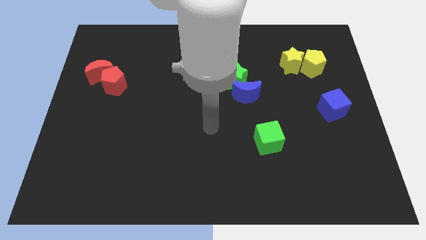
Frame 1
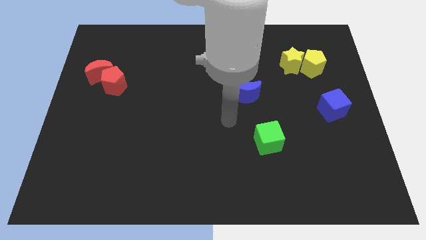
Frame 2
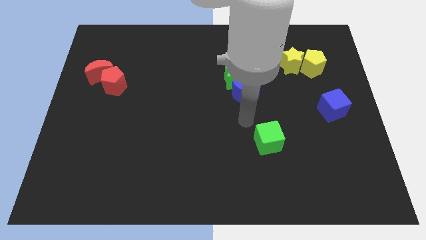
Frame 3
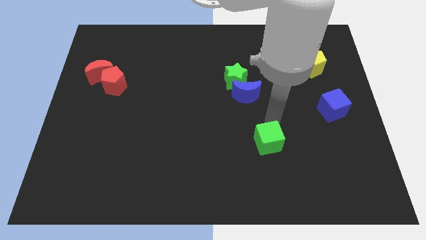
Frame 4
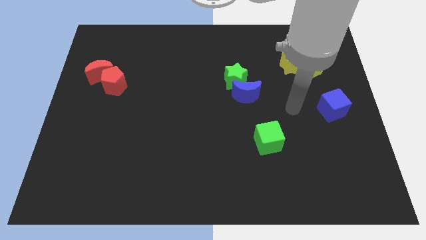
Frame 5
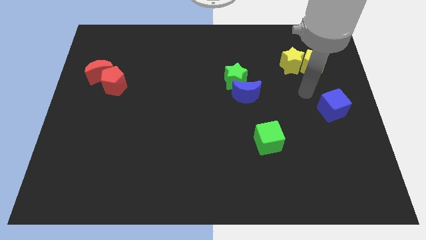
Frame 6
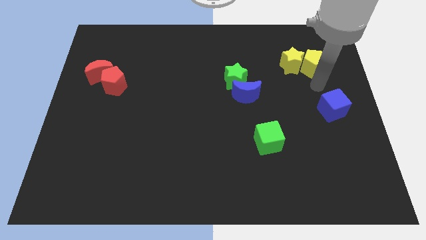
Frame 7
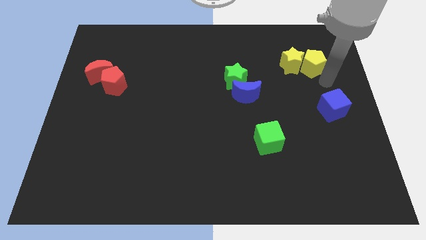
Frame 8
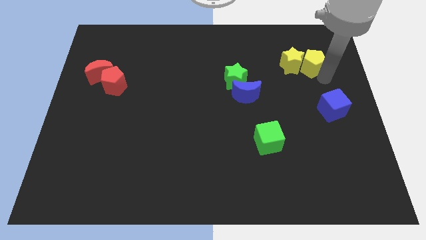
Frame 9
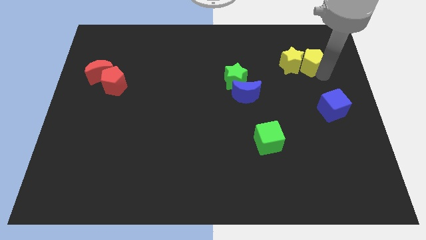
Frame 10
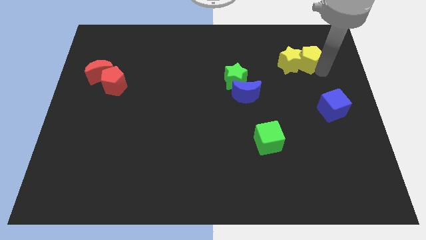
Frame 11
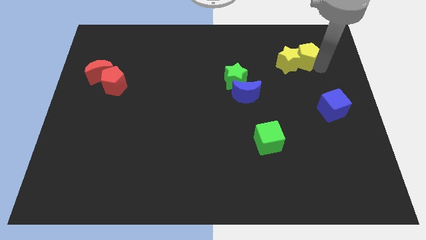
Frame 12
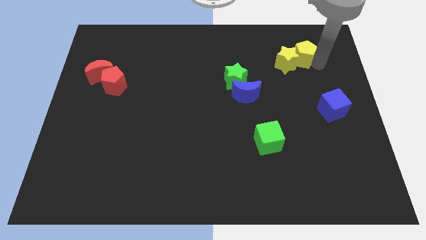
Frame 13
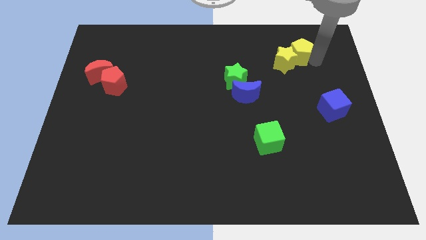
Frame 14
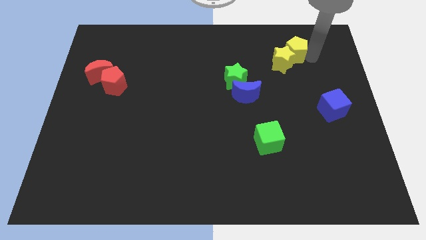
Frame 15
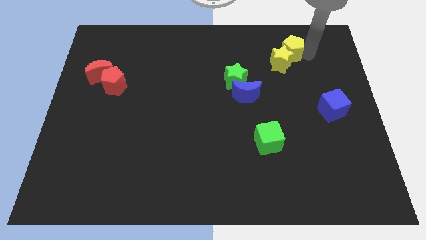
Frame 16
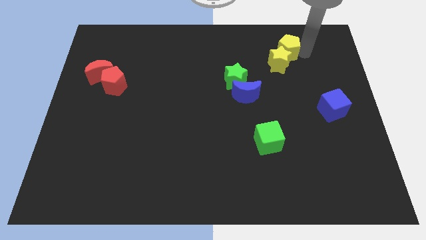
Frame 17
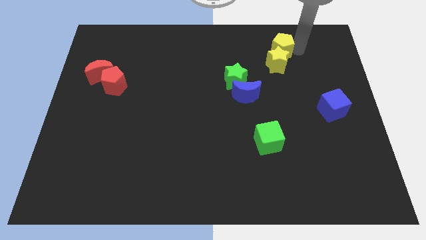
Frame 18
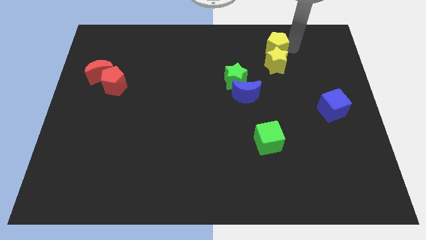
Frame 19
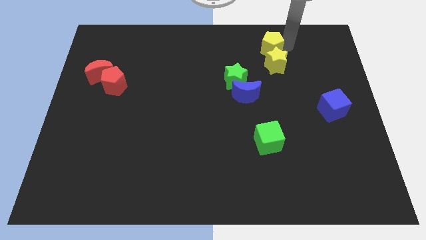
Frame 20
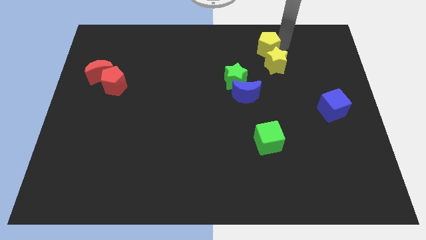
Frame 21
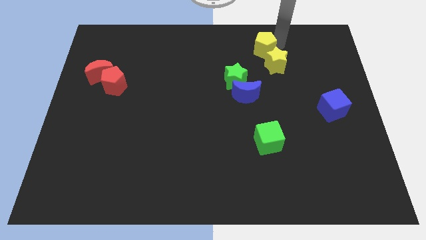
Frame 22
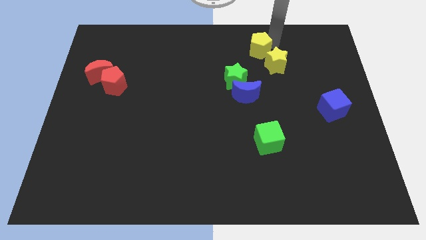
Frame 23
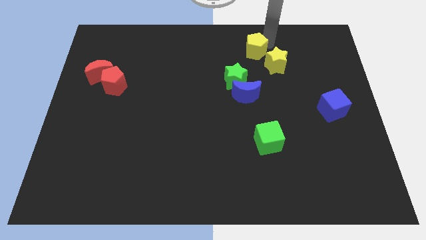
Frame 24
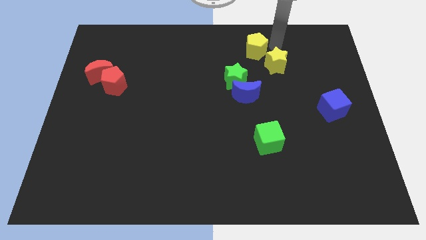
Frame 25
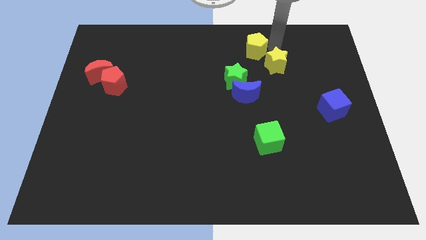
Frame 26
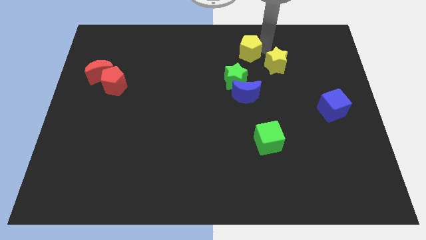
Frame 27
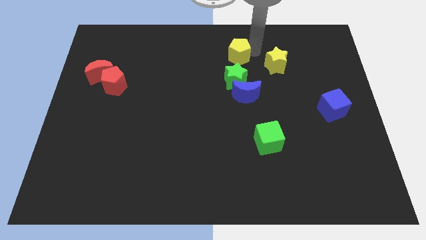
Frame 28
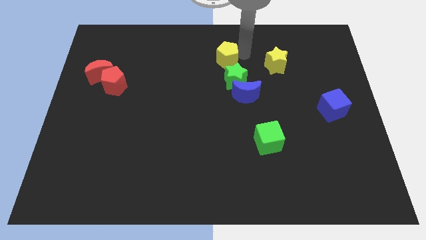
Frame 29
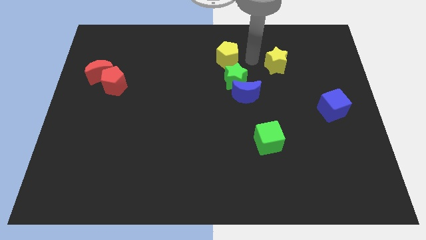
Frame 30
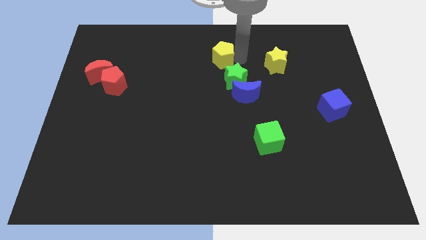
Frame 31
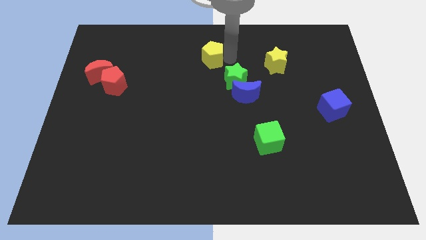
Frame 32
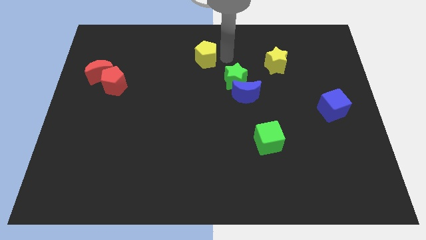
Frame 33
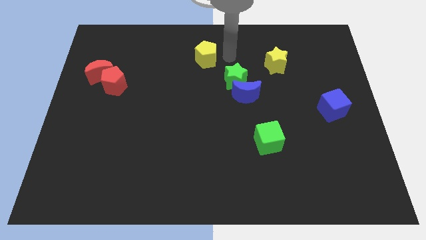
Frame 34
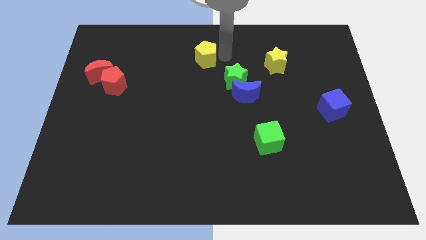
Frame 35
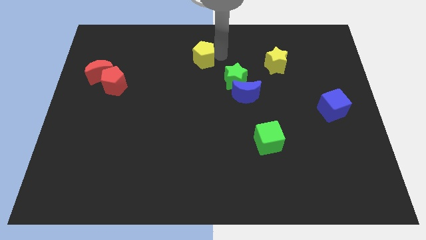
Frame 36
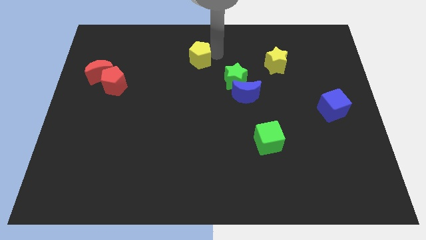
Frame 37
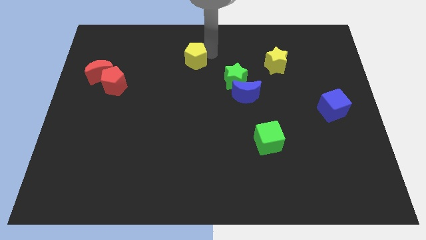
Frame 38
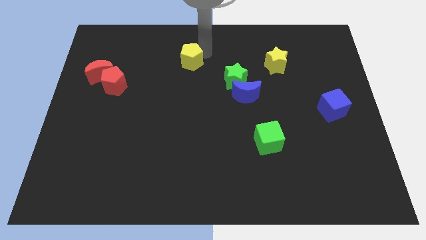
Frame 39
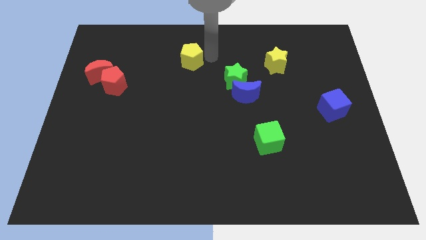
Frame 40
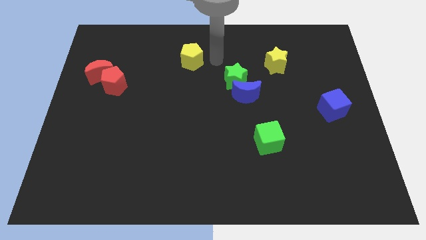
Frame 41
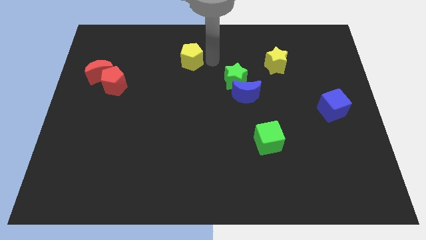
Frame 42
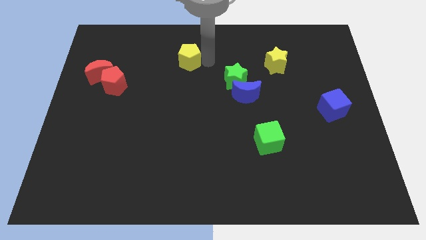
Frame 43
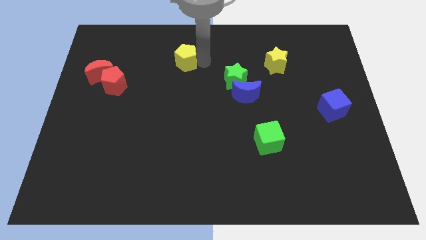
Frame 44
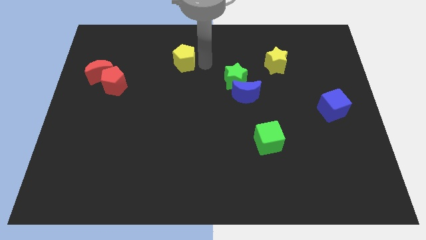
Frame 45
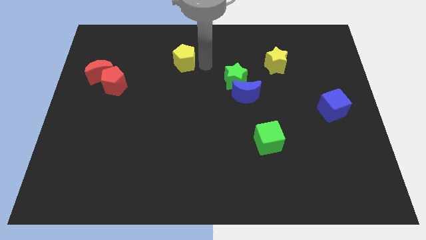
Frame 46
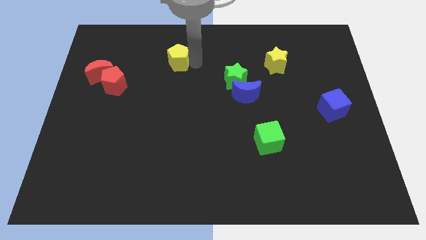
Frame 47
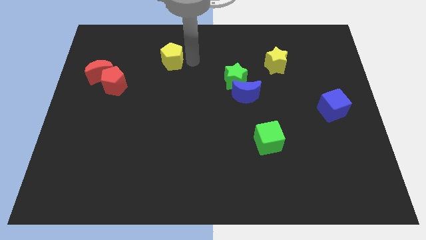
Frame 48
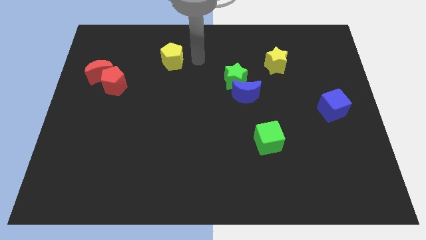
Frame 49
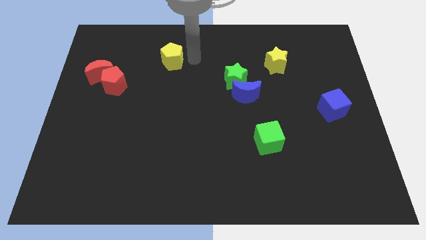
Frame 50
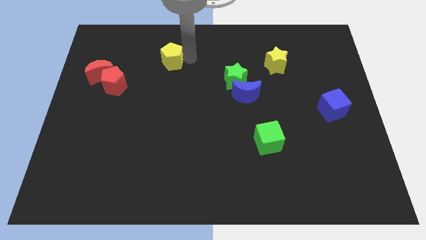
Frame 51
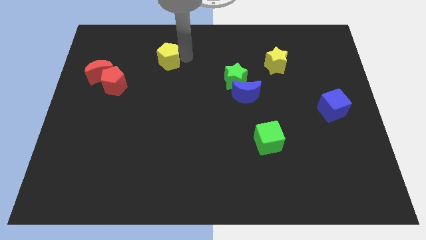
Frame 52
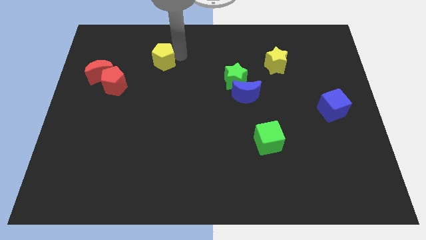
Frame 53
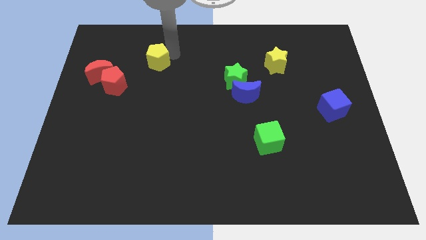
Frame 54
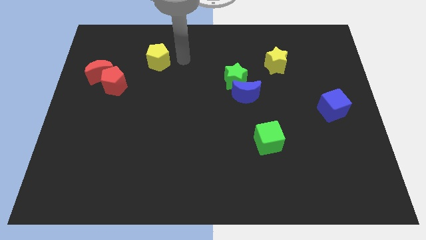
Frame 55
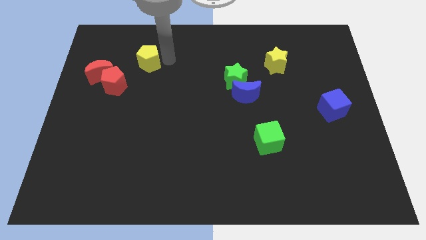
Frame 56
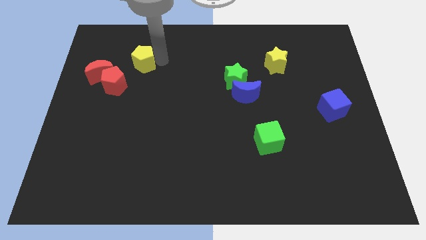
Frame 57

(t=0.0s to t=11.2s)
put the yellow pentagon to the top right of the red moon

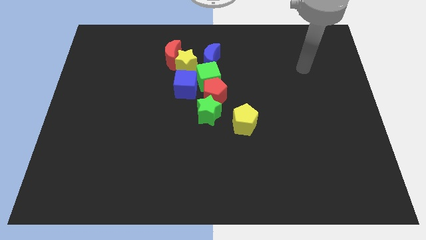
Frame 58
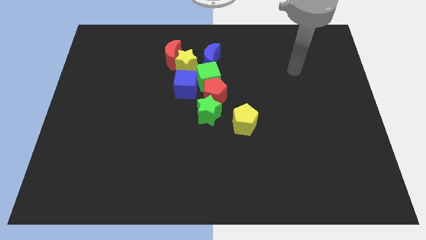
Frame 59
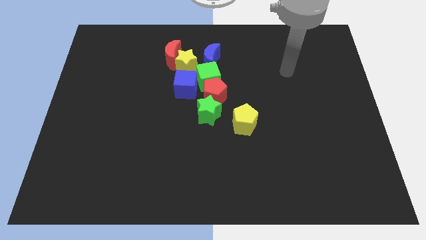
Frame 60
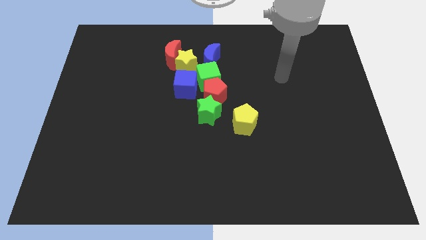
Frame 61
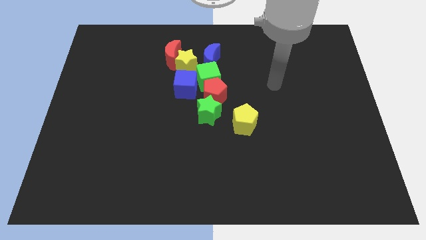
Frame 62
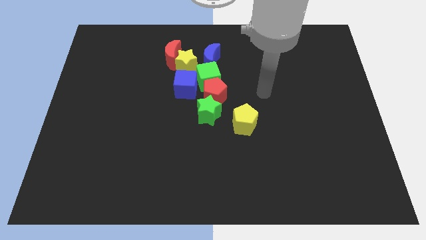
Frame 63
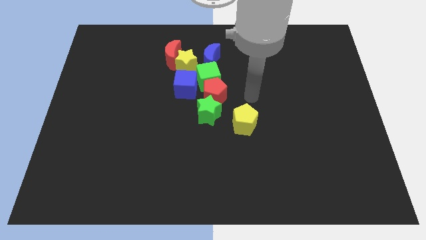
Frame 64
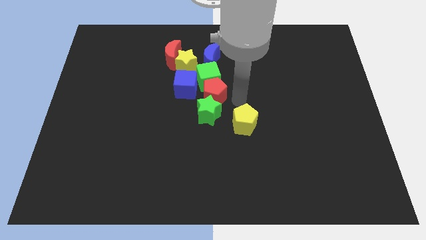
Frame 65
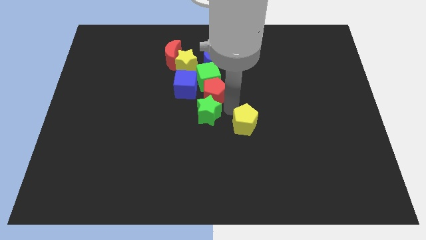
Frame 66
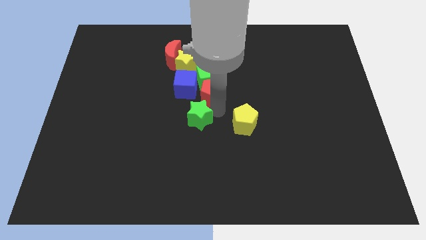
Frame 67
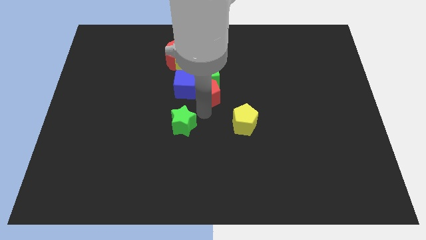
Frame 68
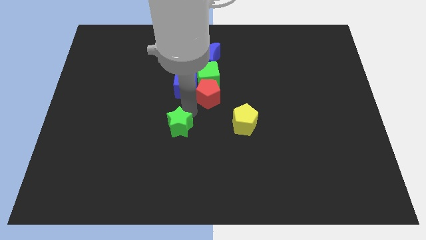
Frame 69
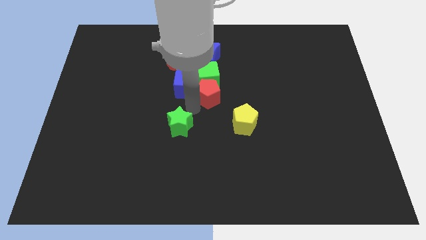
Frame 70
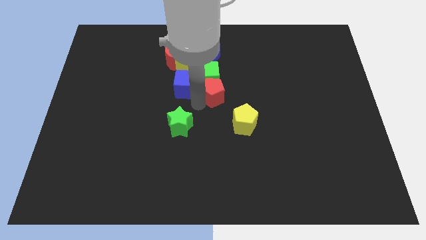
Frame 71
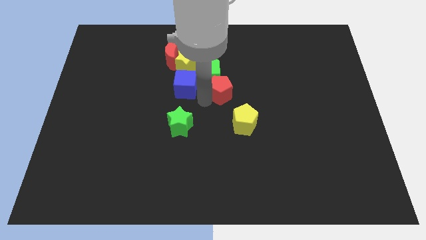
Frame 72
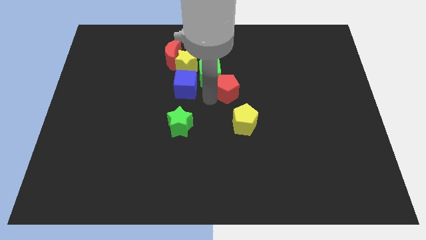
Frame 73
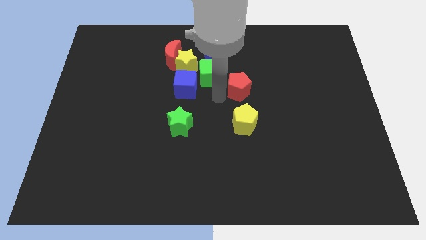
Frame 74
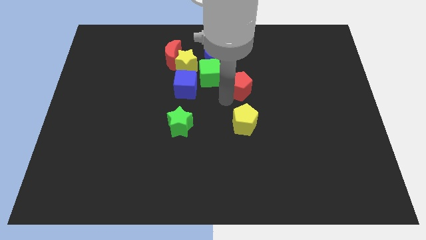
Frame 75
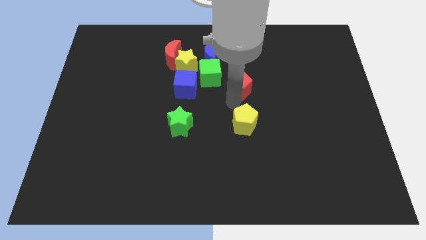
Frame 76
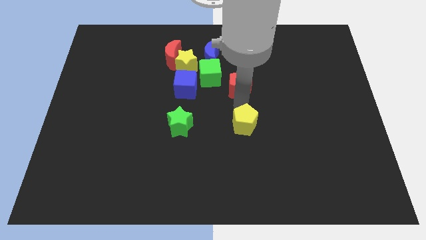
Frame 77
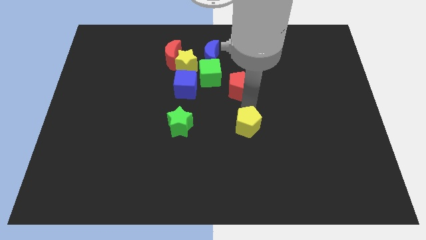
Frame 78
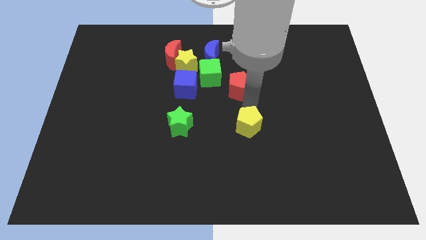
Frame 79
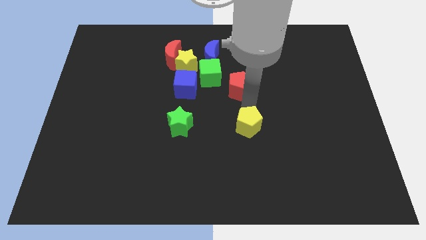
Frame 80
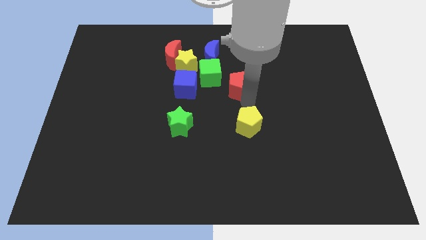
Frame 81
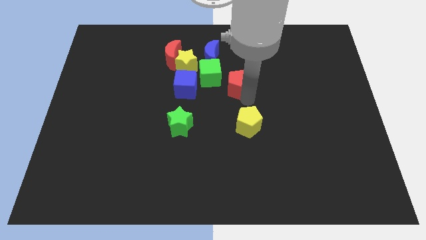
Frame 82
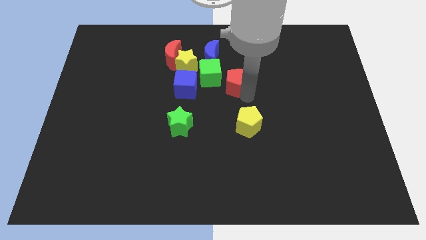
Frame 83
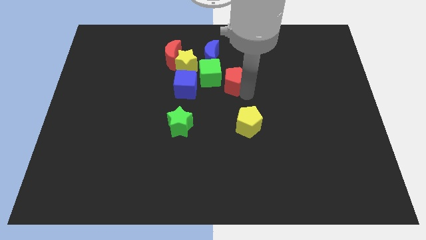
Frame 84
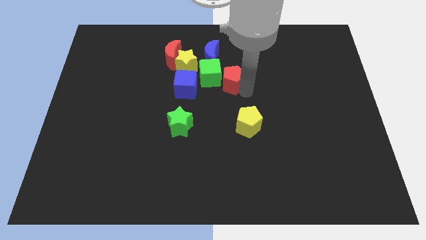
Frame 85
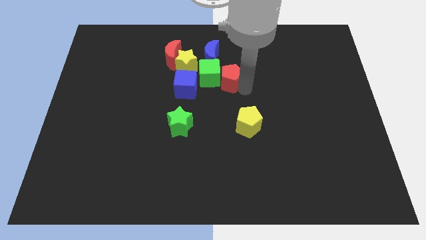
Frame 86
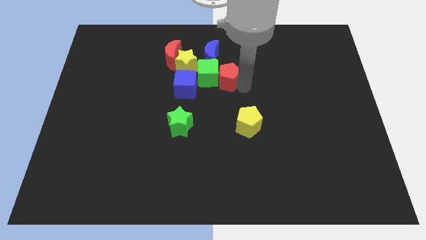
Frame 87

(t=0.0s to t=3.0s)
move the red pentagon just right of the yellow star
